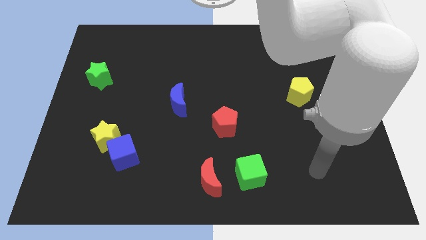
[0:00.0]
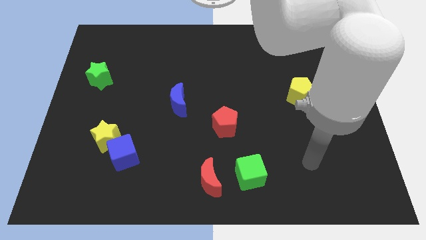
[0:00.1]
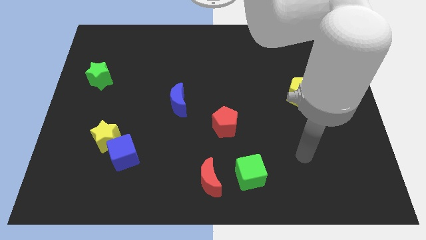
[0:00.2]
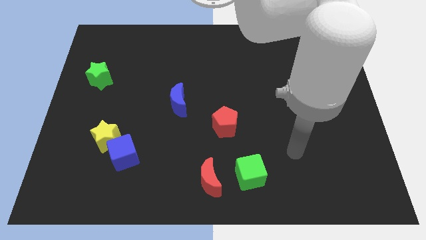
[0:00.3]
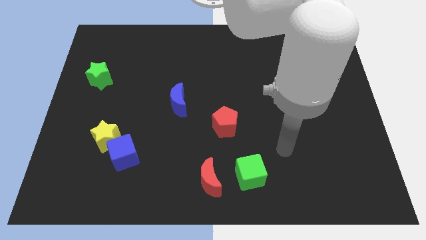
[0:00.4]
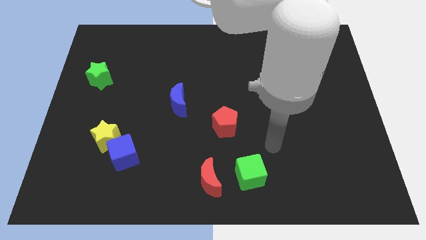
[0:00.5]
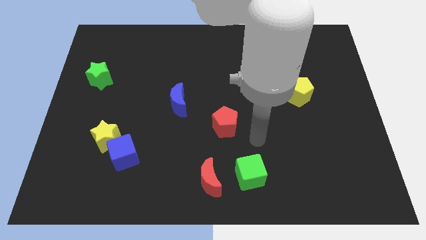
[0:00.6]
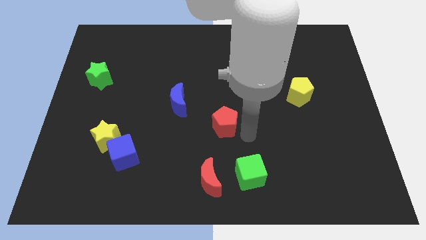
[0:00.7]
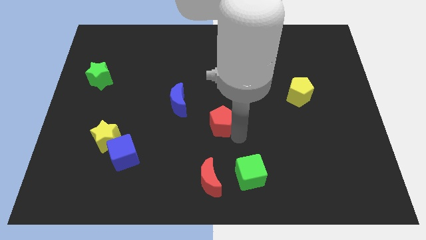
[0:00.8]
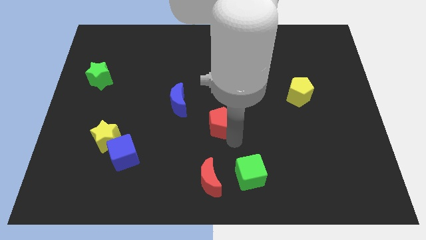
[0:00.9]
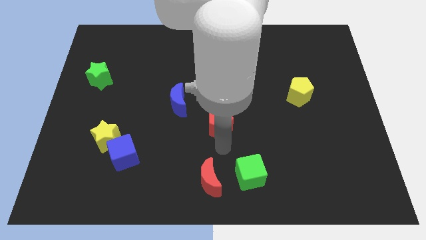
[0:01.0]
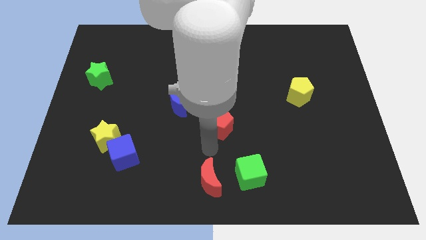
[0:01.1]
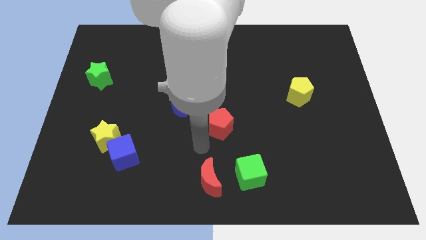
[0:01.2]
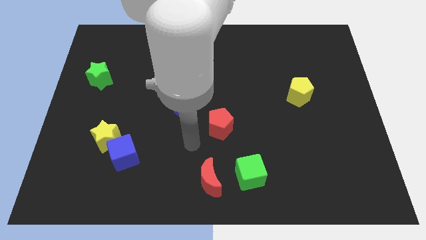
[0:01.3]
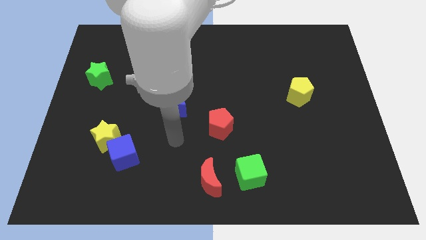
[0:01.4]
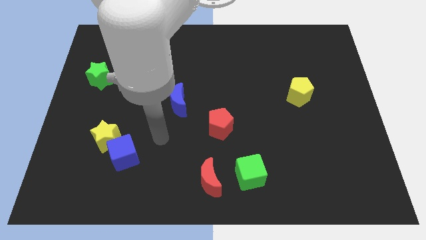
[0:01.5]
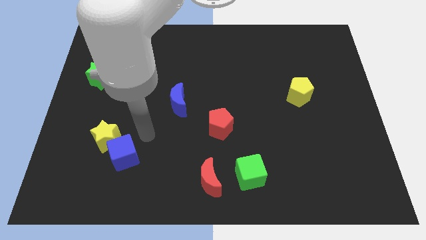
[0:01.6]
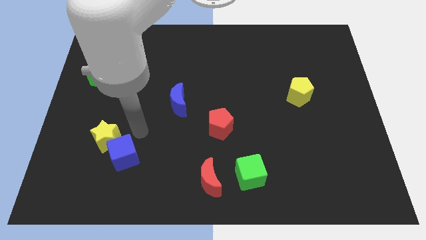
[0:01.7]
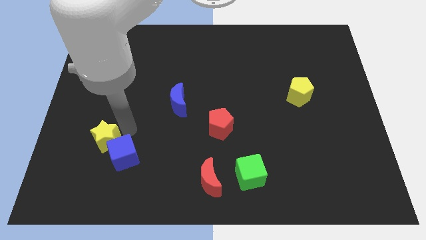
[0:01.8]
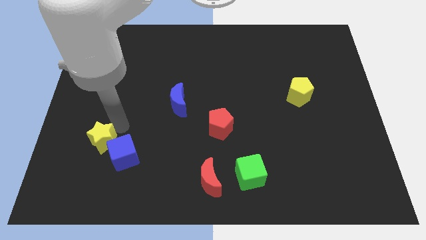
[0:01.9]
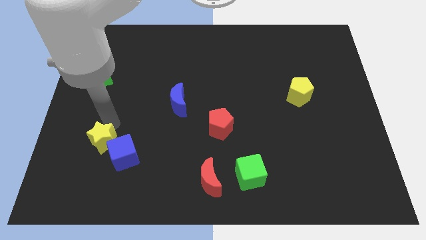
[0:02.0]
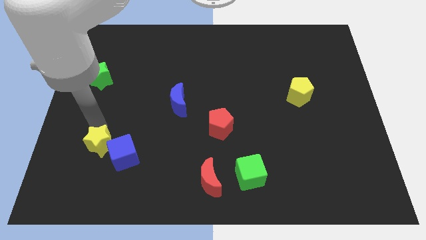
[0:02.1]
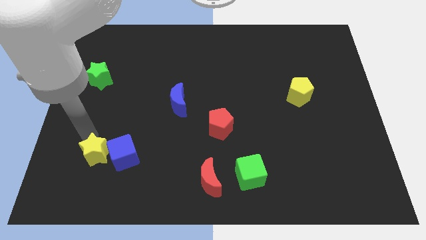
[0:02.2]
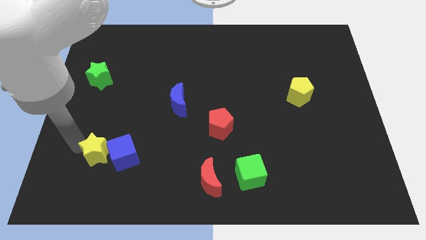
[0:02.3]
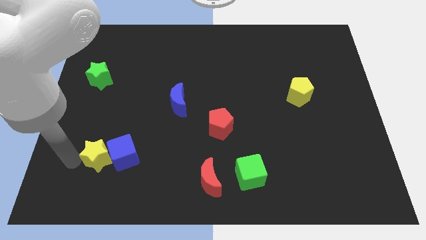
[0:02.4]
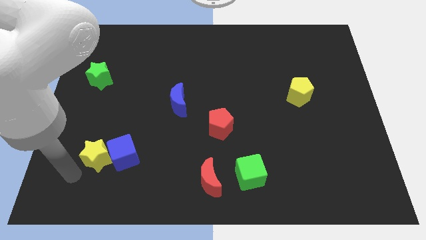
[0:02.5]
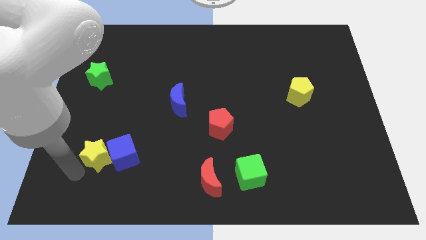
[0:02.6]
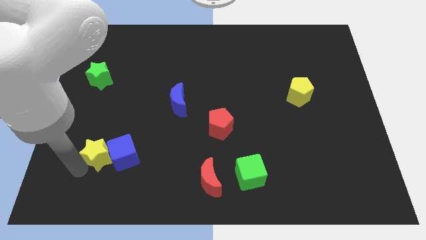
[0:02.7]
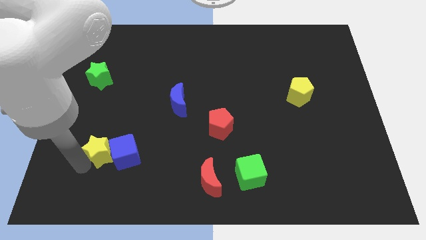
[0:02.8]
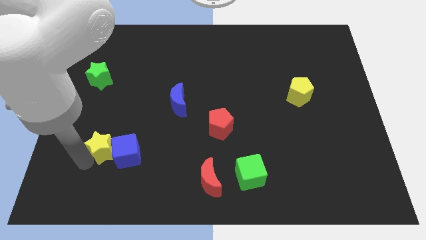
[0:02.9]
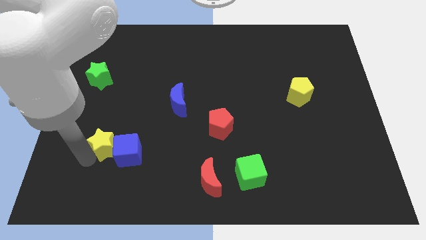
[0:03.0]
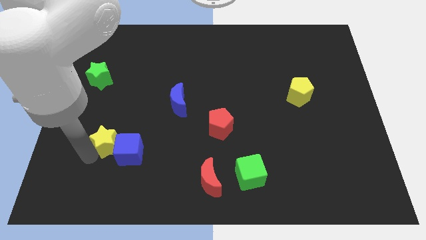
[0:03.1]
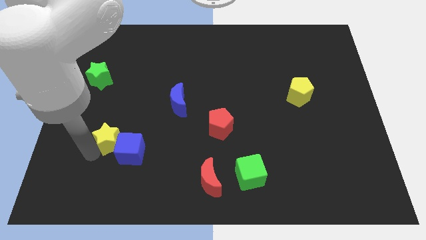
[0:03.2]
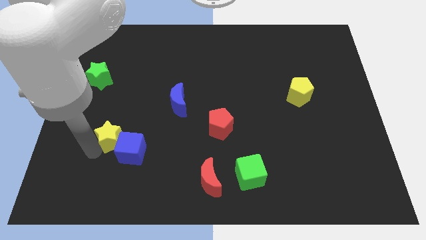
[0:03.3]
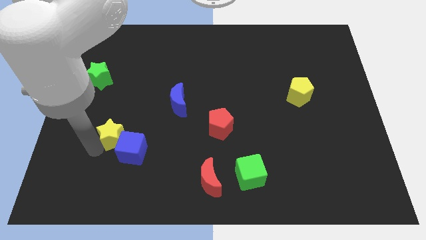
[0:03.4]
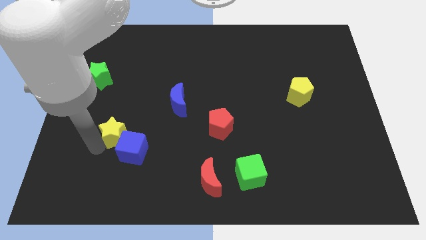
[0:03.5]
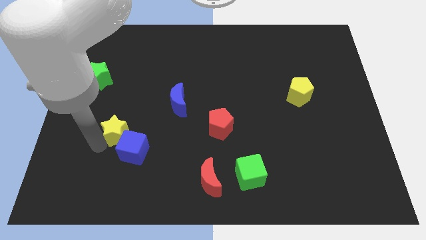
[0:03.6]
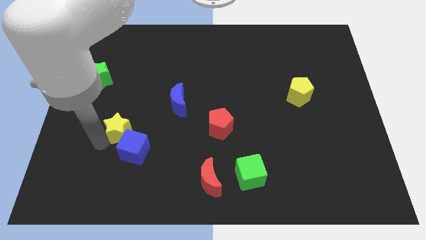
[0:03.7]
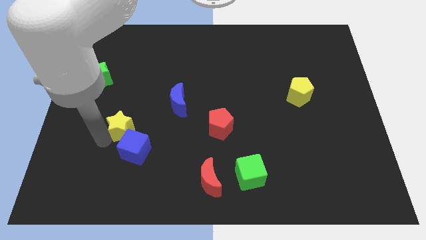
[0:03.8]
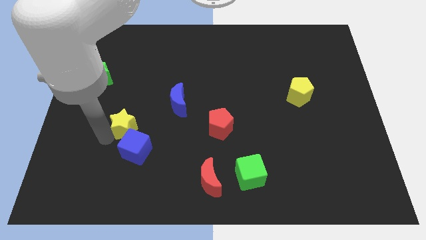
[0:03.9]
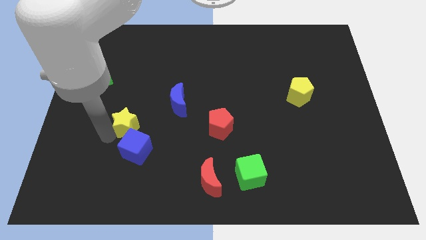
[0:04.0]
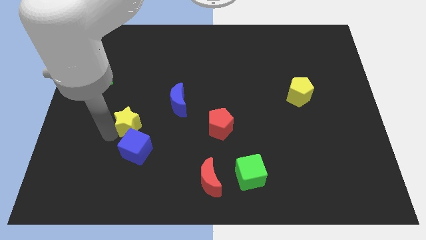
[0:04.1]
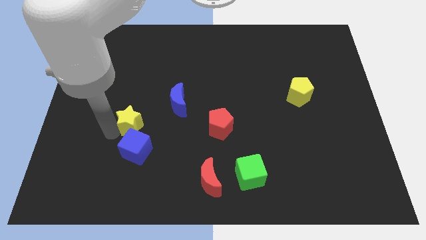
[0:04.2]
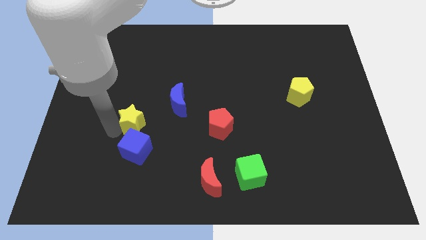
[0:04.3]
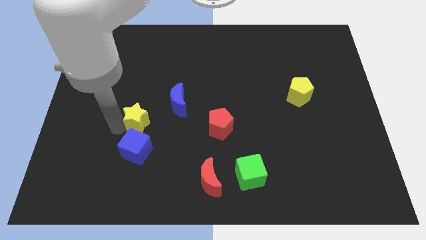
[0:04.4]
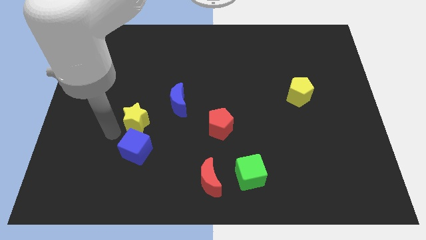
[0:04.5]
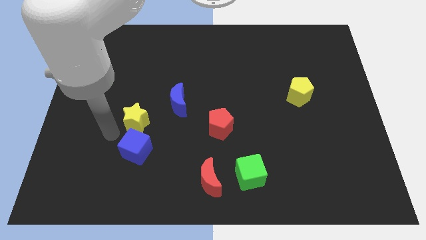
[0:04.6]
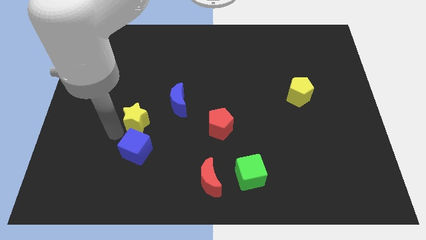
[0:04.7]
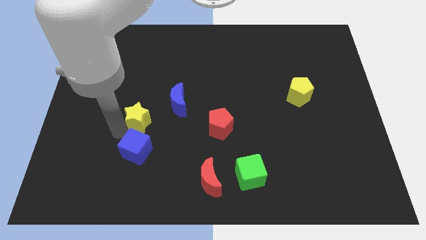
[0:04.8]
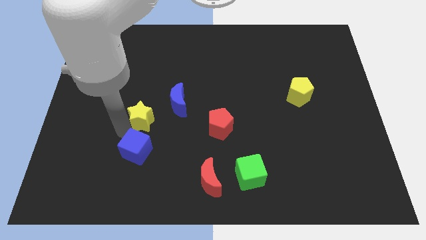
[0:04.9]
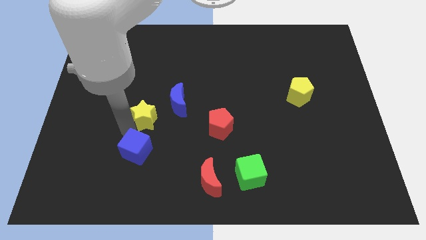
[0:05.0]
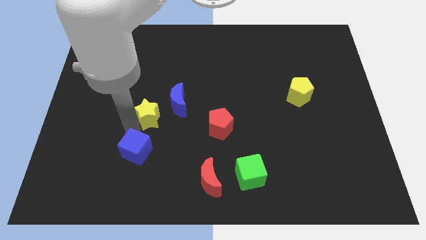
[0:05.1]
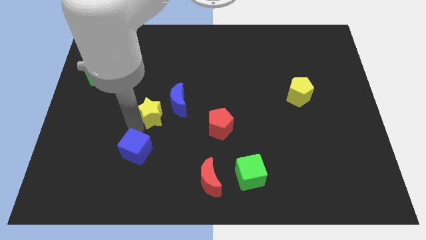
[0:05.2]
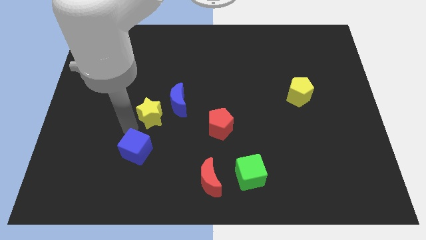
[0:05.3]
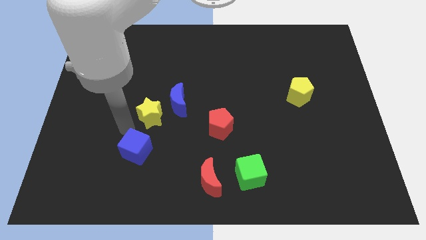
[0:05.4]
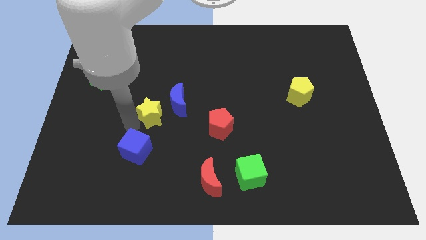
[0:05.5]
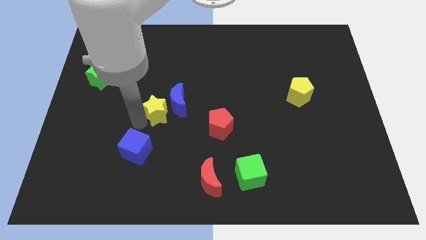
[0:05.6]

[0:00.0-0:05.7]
put the yellow star next to the blue moon

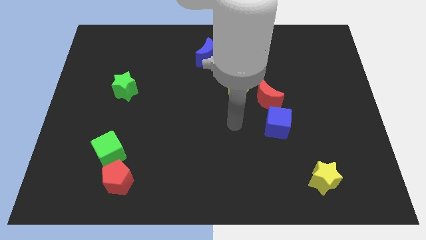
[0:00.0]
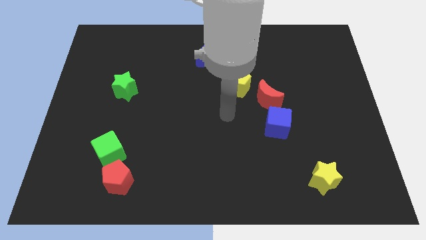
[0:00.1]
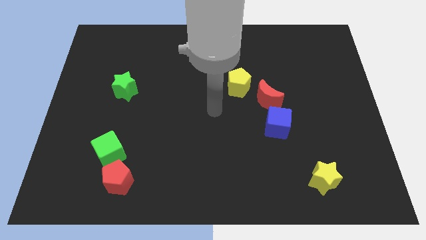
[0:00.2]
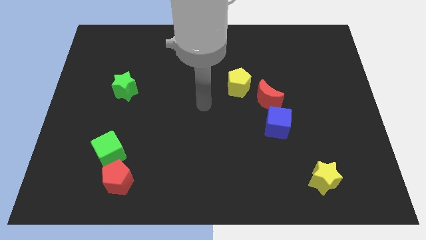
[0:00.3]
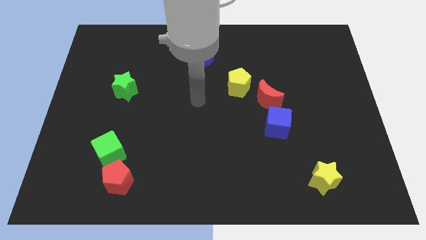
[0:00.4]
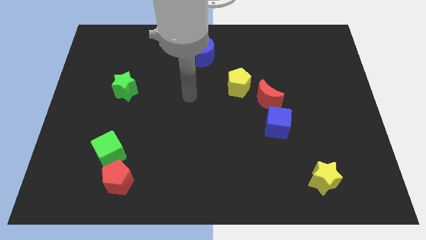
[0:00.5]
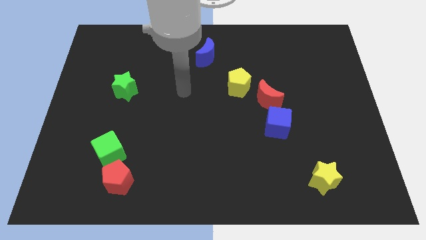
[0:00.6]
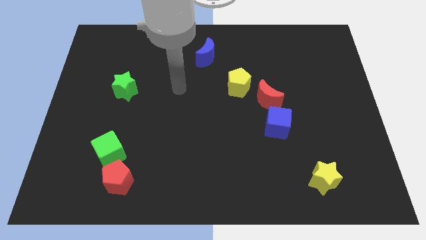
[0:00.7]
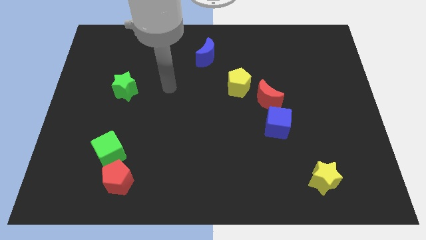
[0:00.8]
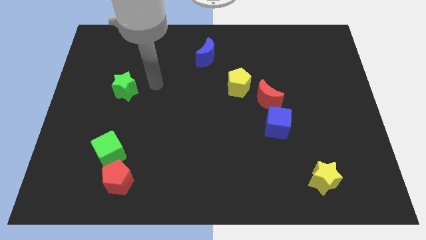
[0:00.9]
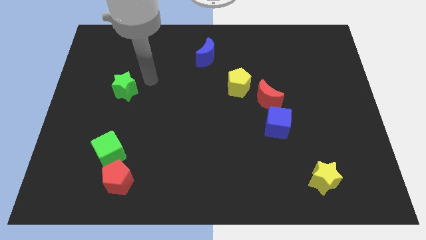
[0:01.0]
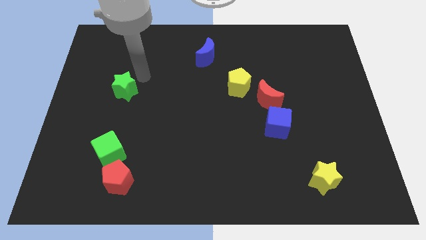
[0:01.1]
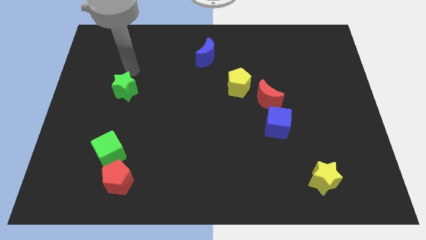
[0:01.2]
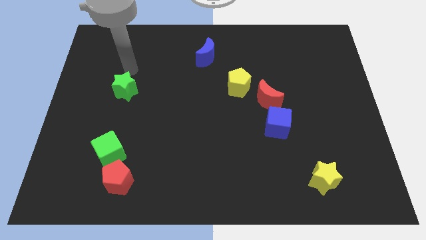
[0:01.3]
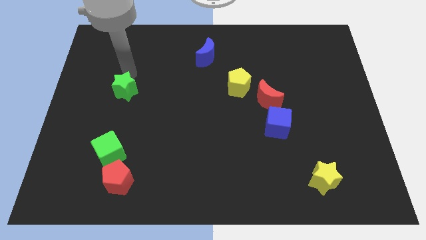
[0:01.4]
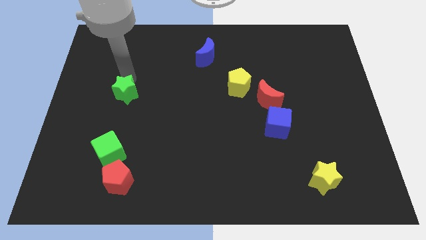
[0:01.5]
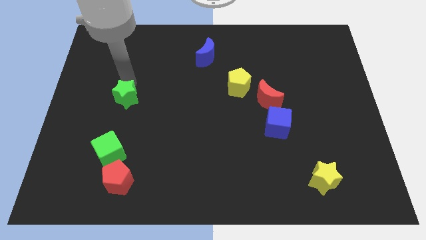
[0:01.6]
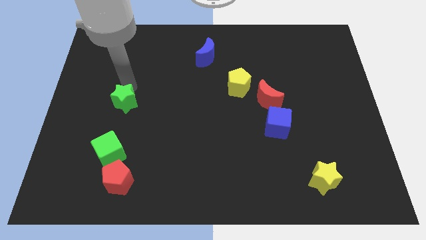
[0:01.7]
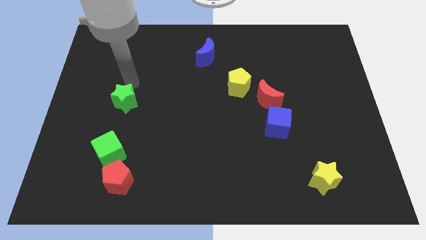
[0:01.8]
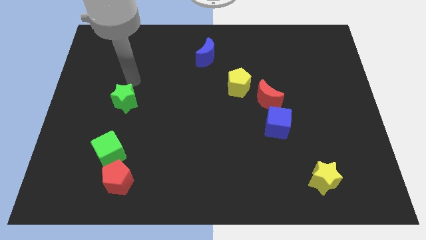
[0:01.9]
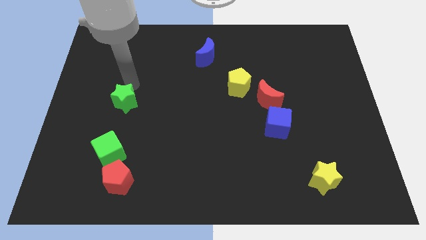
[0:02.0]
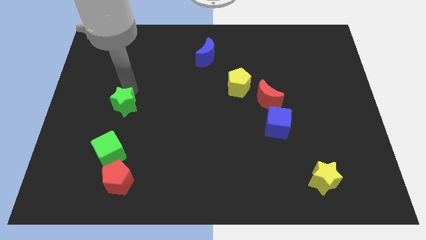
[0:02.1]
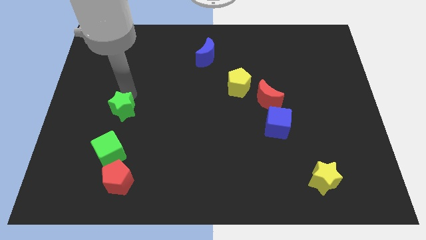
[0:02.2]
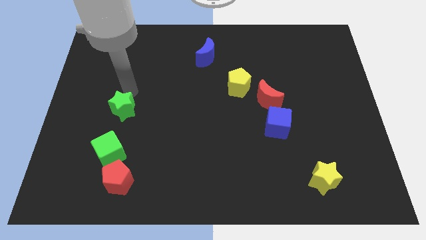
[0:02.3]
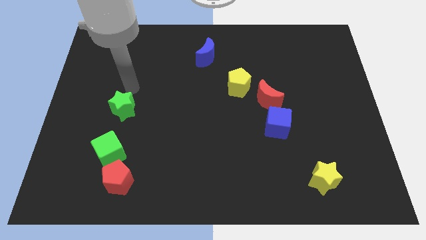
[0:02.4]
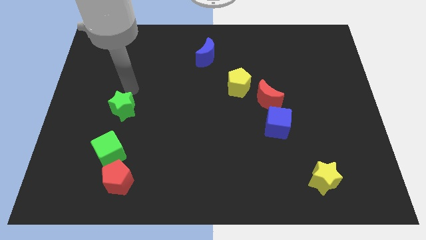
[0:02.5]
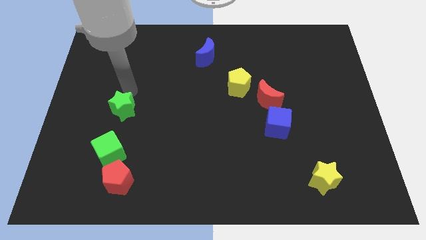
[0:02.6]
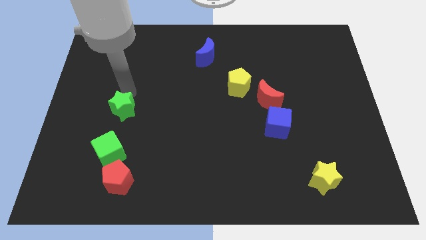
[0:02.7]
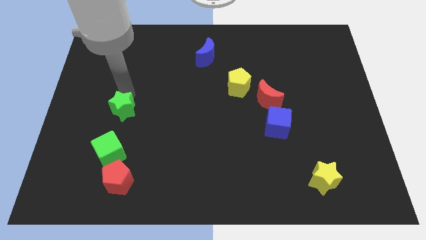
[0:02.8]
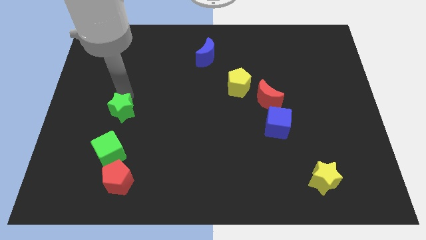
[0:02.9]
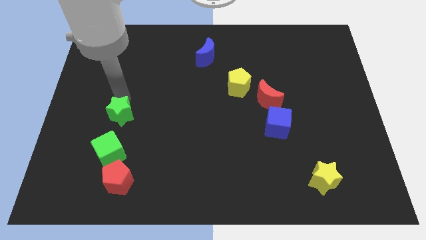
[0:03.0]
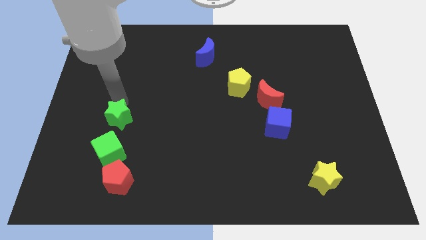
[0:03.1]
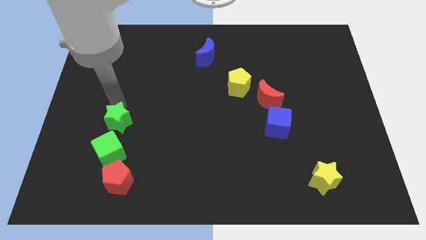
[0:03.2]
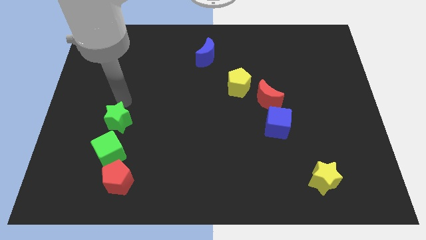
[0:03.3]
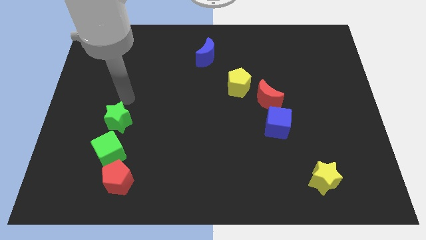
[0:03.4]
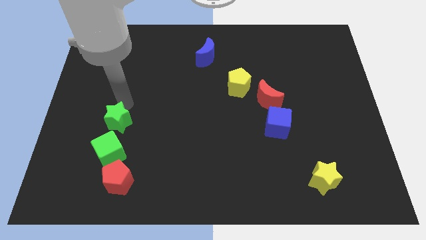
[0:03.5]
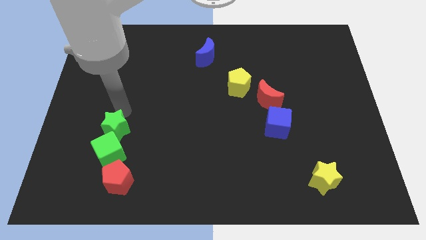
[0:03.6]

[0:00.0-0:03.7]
push the green star to the green cube
